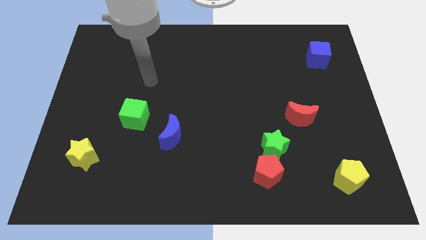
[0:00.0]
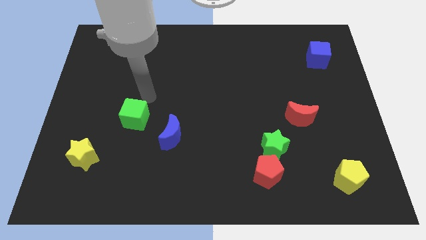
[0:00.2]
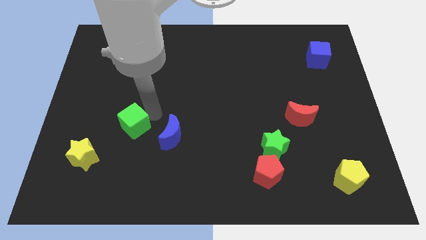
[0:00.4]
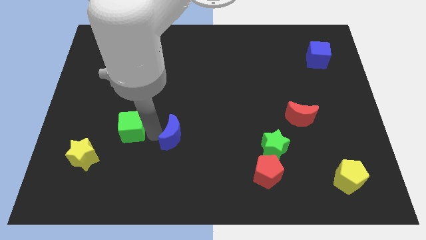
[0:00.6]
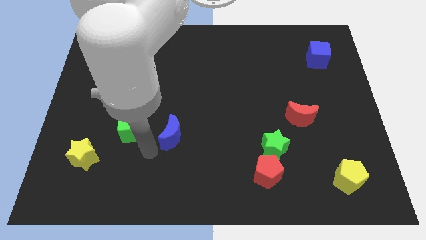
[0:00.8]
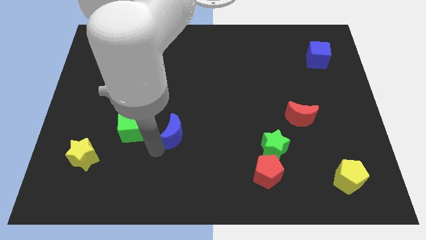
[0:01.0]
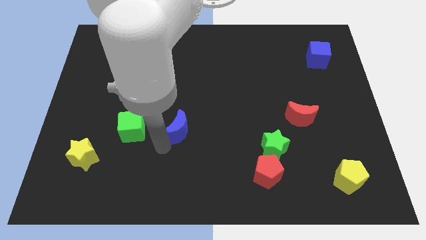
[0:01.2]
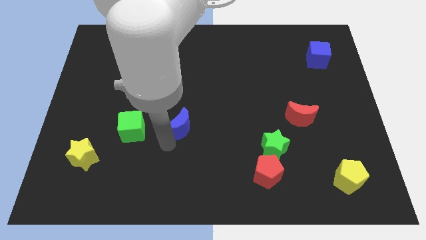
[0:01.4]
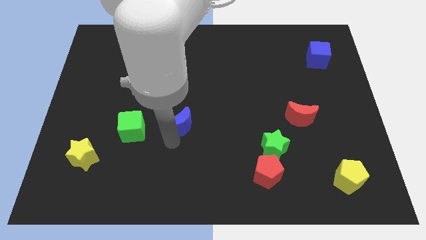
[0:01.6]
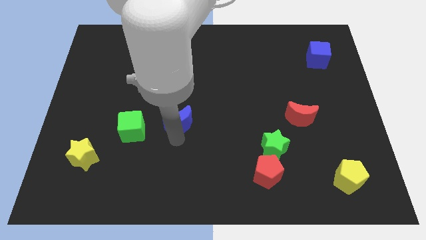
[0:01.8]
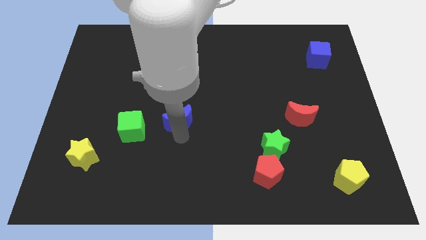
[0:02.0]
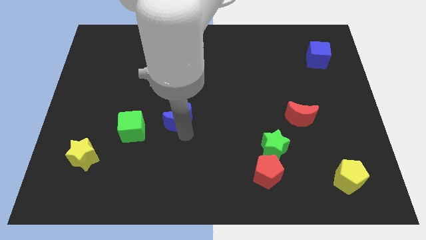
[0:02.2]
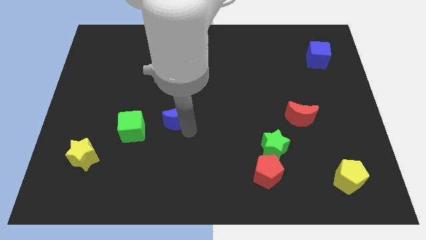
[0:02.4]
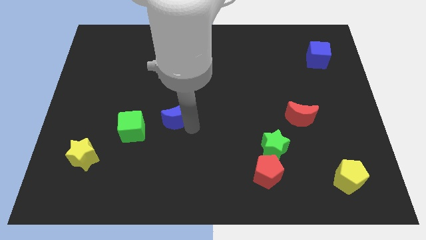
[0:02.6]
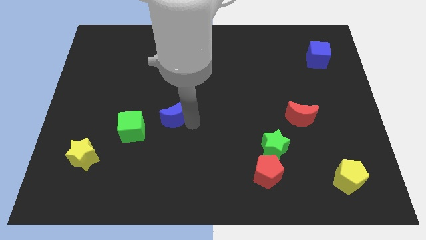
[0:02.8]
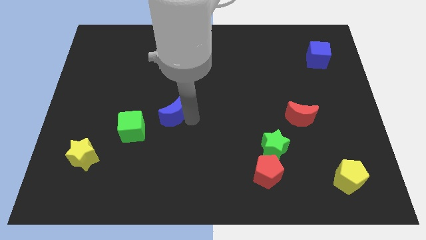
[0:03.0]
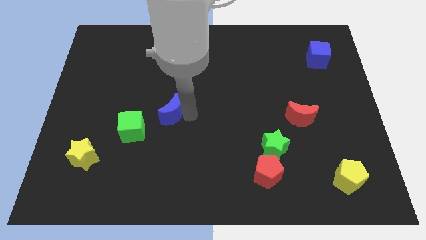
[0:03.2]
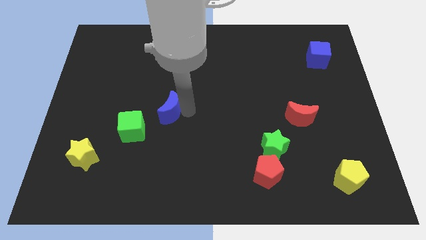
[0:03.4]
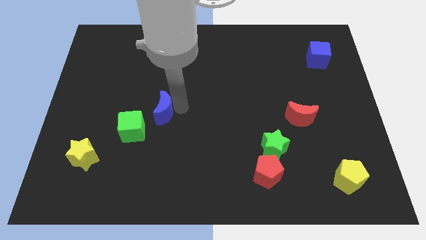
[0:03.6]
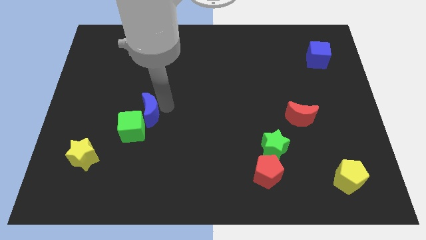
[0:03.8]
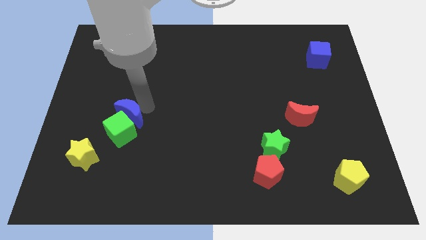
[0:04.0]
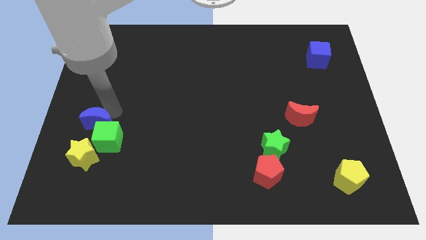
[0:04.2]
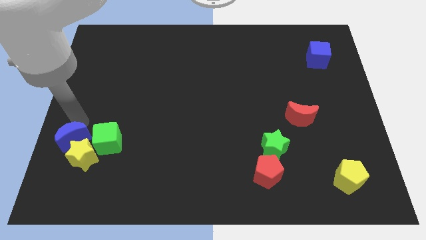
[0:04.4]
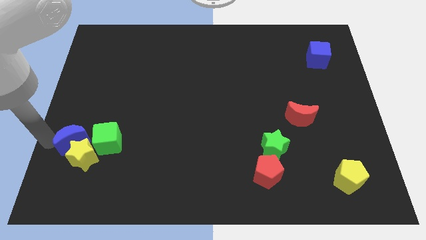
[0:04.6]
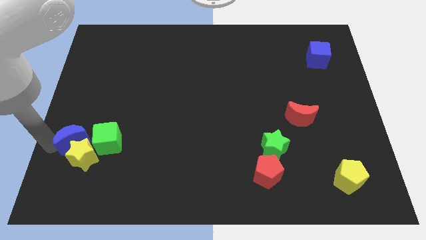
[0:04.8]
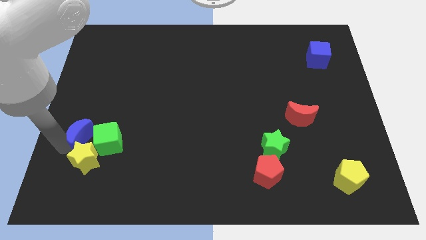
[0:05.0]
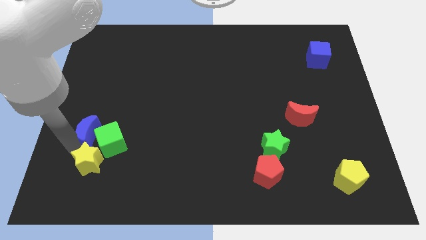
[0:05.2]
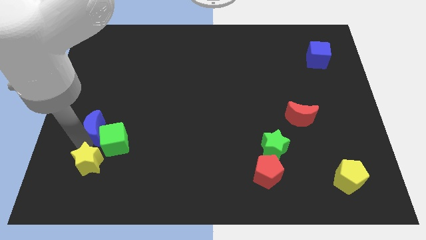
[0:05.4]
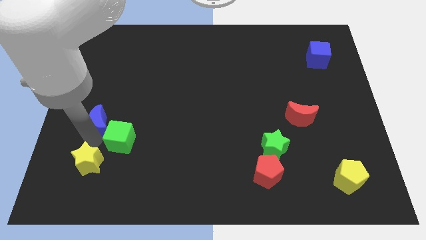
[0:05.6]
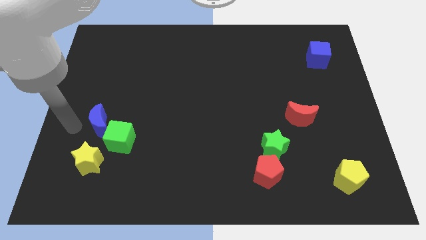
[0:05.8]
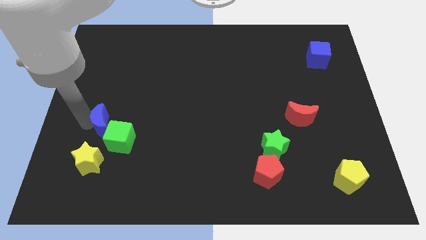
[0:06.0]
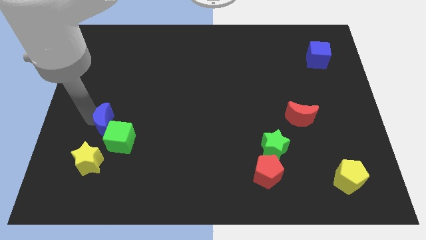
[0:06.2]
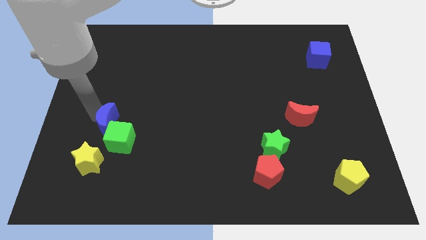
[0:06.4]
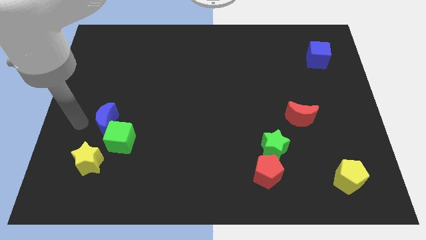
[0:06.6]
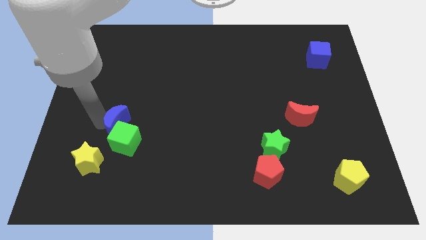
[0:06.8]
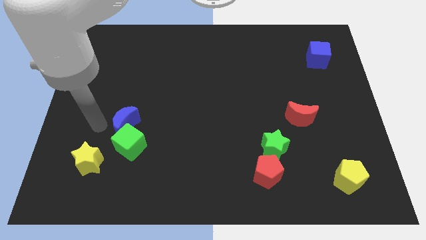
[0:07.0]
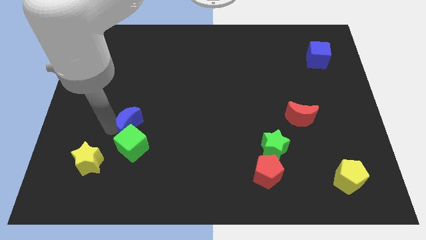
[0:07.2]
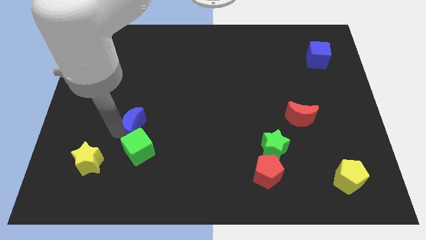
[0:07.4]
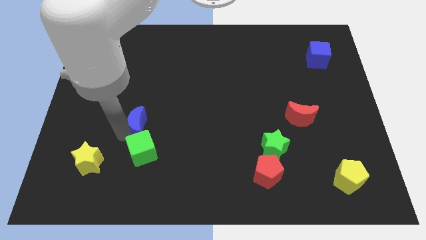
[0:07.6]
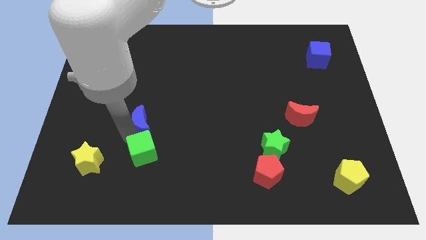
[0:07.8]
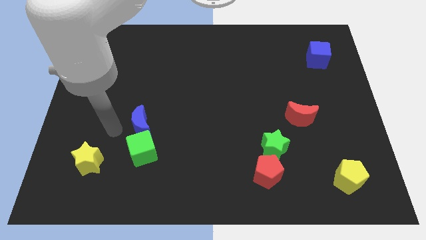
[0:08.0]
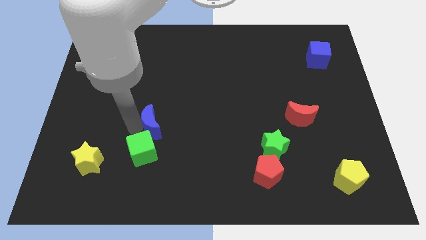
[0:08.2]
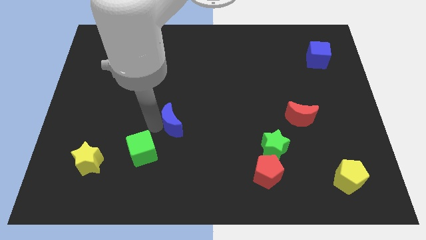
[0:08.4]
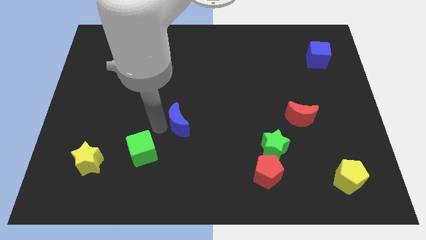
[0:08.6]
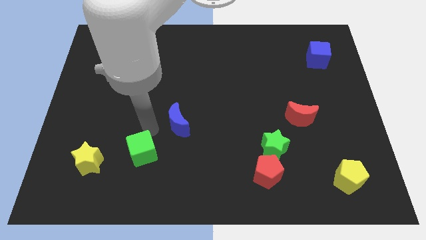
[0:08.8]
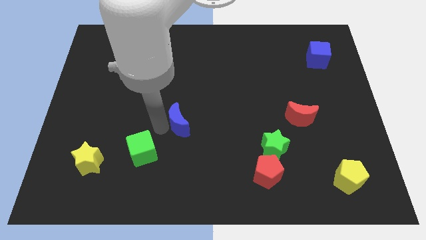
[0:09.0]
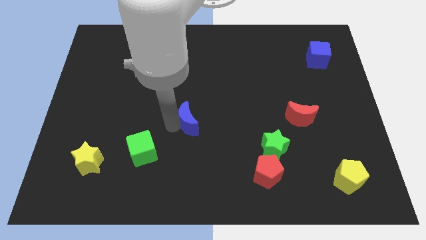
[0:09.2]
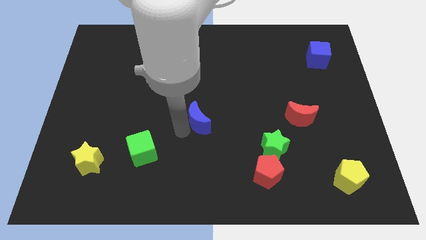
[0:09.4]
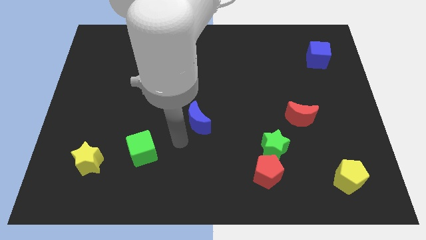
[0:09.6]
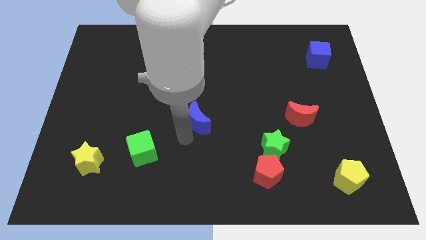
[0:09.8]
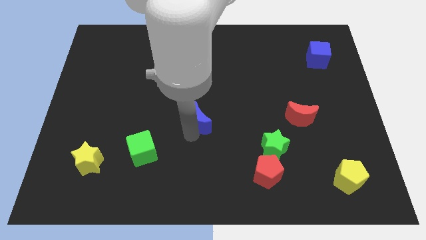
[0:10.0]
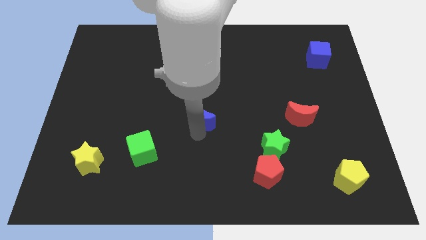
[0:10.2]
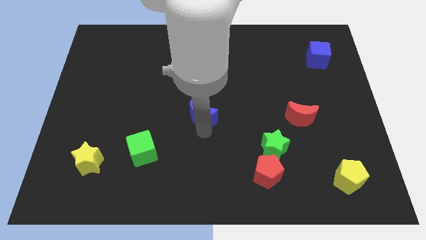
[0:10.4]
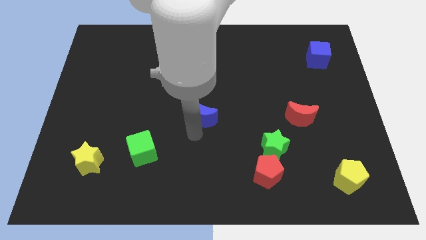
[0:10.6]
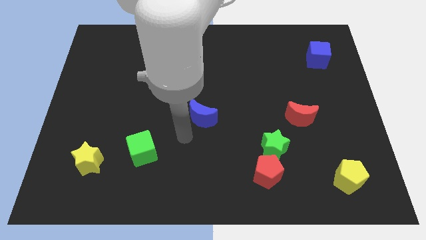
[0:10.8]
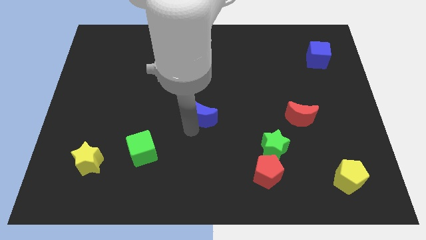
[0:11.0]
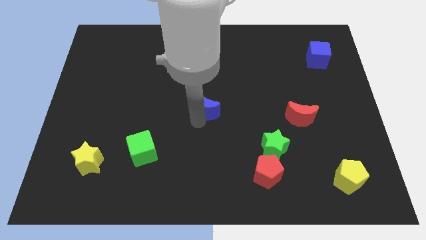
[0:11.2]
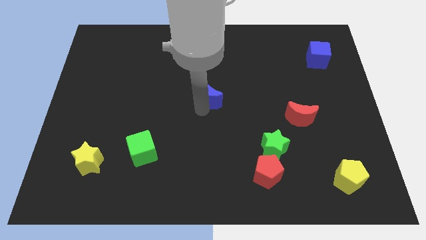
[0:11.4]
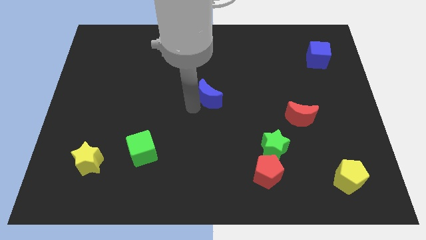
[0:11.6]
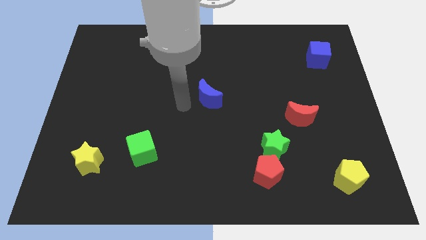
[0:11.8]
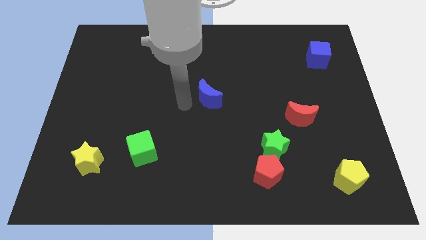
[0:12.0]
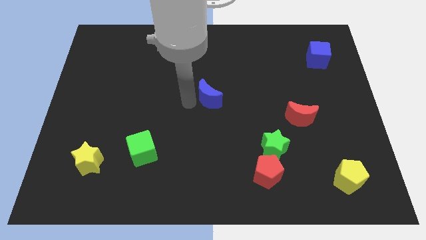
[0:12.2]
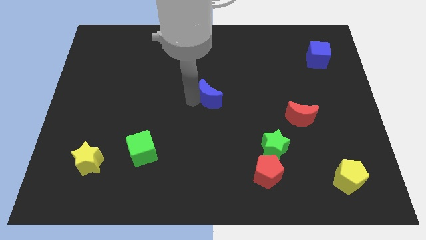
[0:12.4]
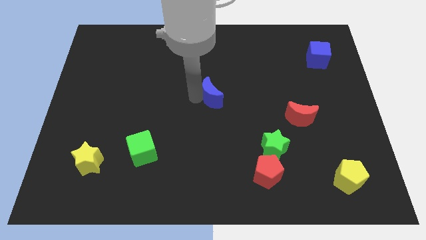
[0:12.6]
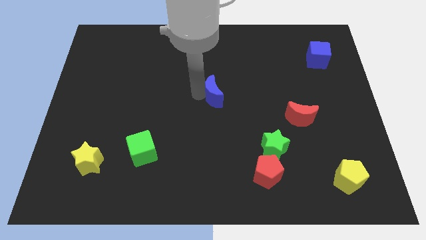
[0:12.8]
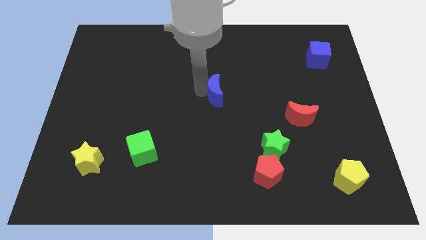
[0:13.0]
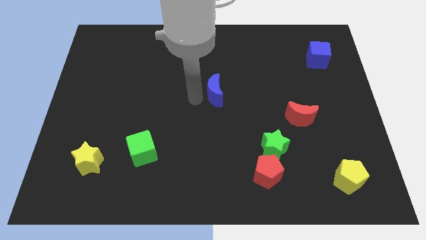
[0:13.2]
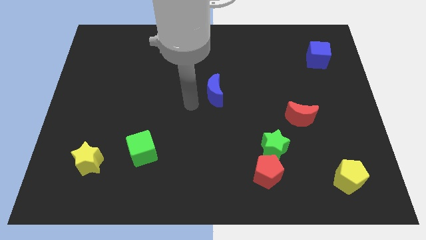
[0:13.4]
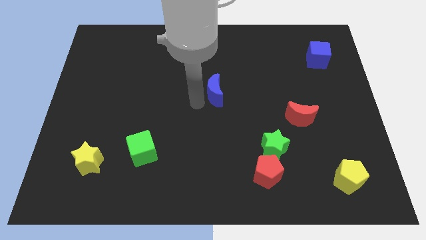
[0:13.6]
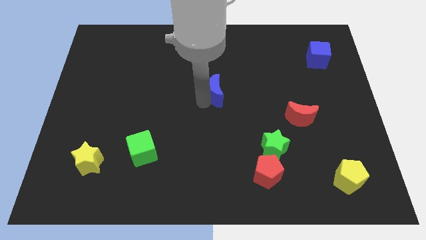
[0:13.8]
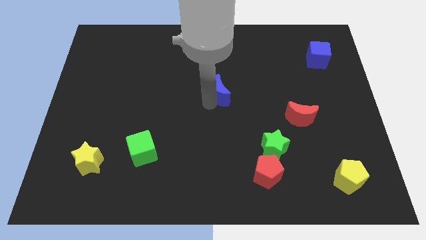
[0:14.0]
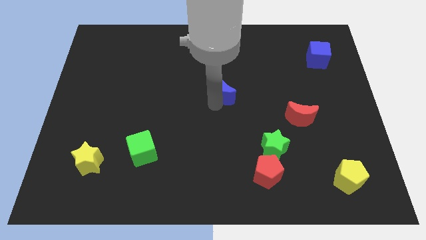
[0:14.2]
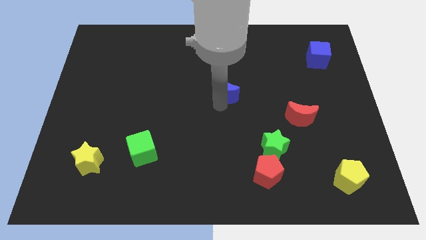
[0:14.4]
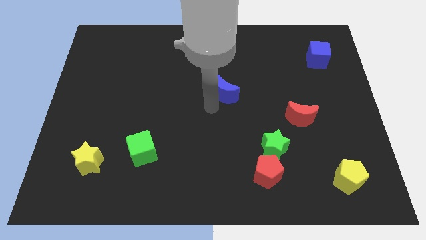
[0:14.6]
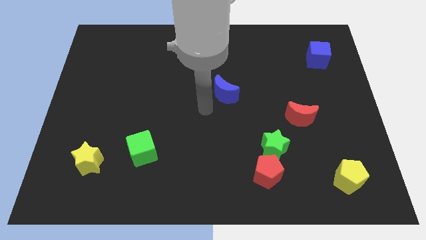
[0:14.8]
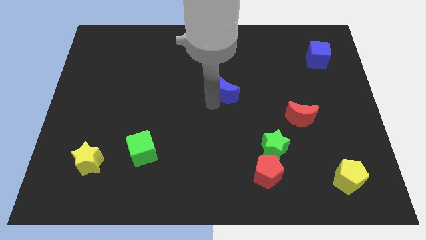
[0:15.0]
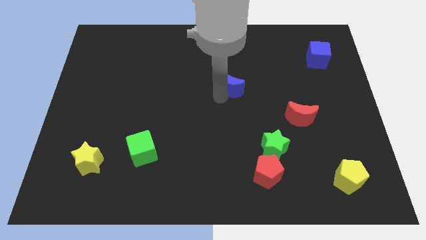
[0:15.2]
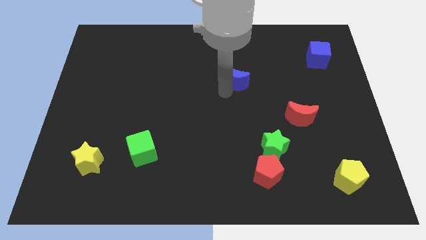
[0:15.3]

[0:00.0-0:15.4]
push the blue moon up and to the right diagonally

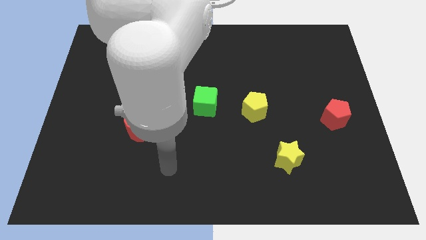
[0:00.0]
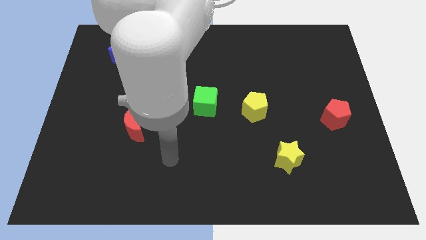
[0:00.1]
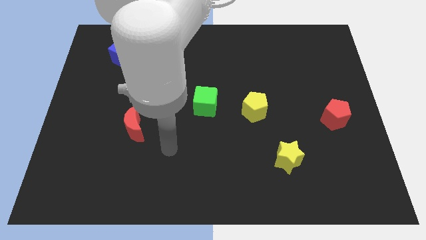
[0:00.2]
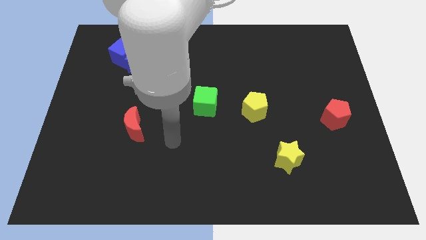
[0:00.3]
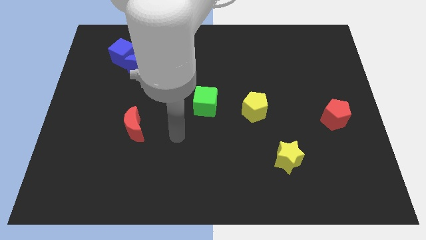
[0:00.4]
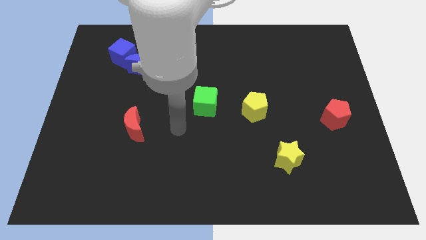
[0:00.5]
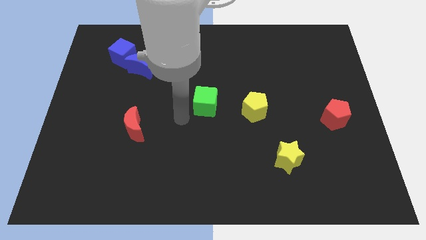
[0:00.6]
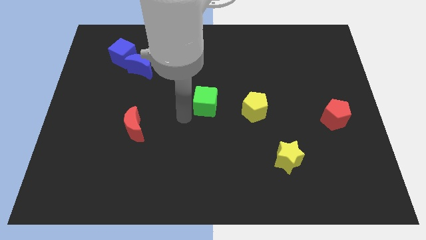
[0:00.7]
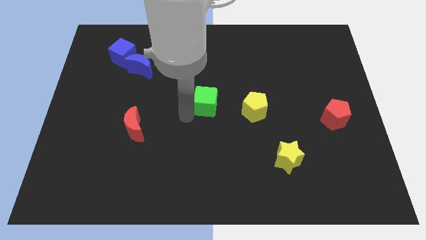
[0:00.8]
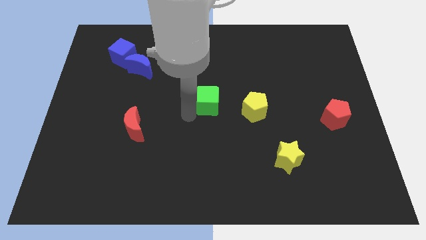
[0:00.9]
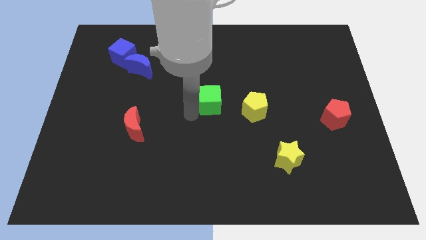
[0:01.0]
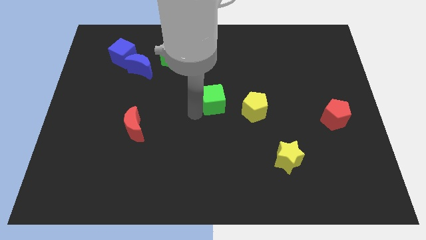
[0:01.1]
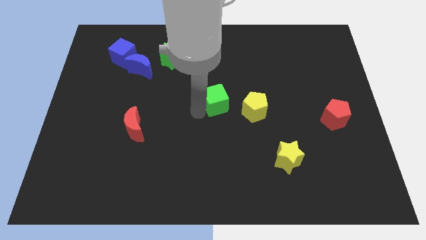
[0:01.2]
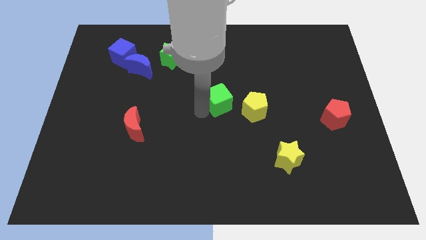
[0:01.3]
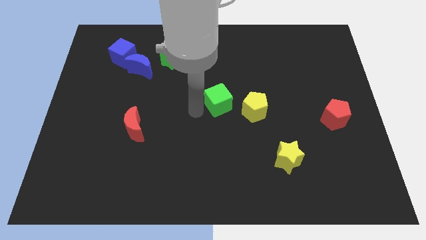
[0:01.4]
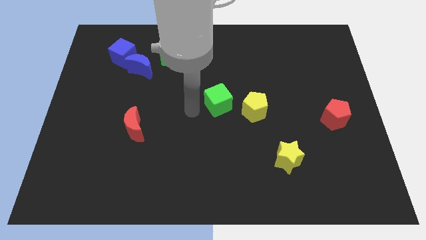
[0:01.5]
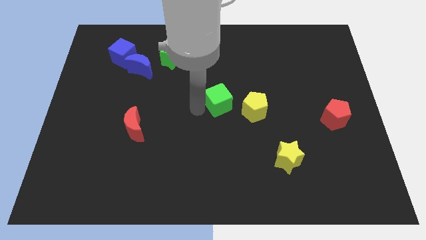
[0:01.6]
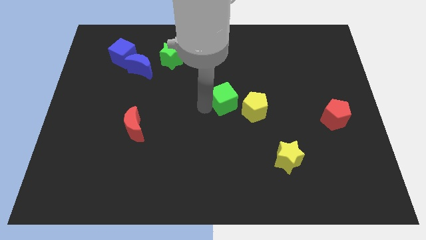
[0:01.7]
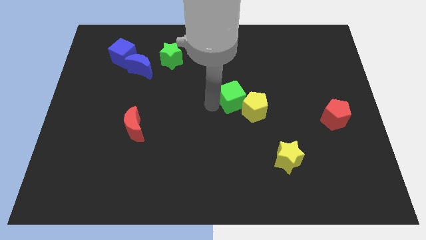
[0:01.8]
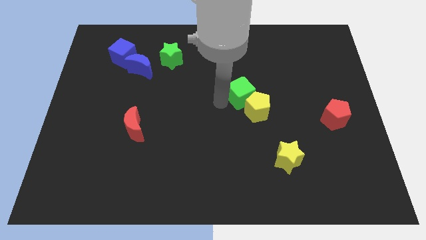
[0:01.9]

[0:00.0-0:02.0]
move the green cube somewhat right
